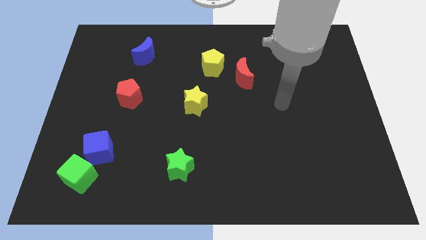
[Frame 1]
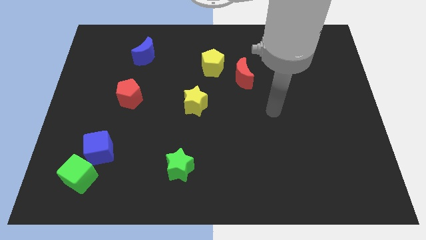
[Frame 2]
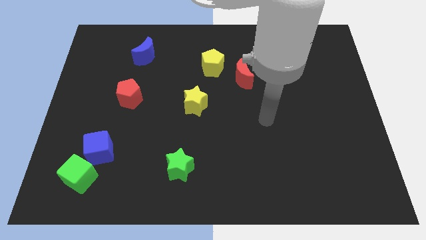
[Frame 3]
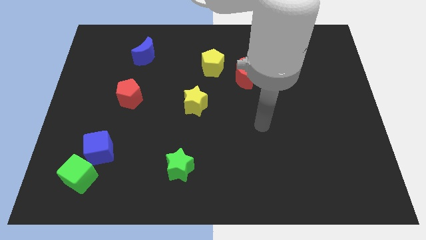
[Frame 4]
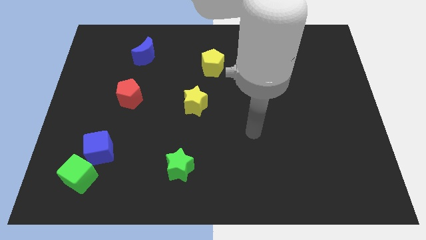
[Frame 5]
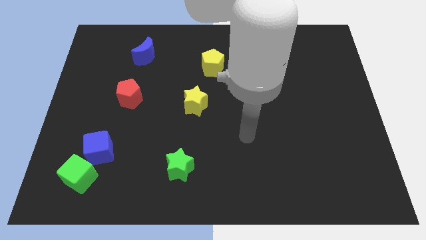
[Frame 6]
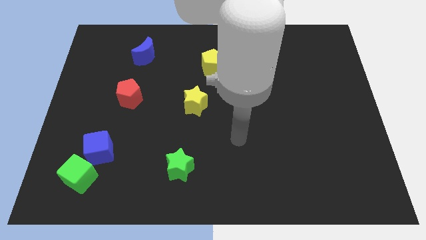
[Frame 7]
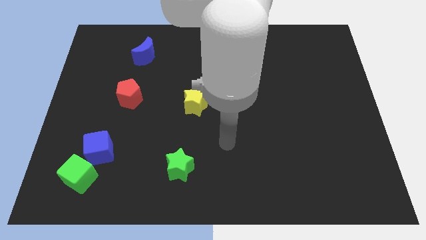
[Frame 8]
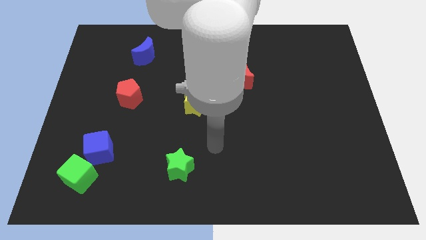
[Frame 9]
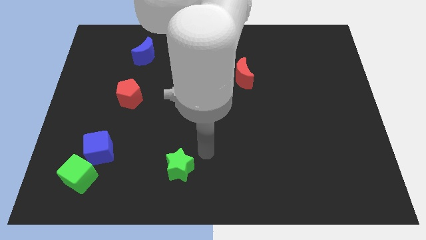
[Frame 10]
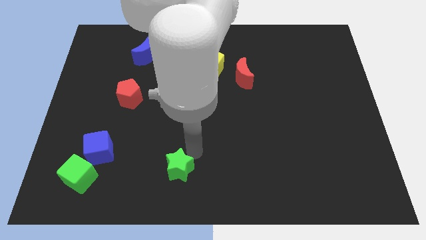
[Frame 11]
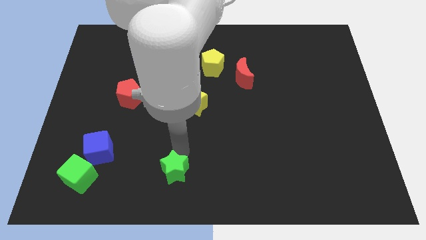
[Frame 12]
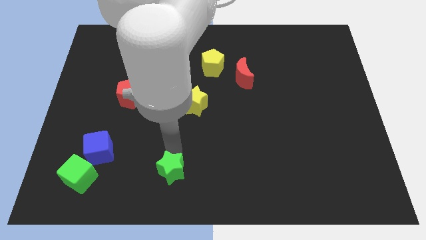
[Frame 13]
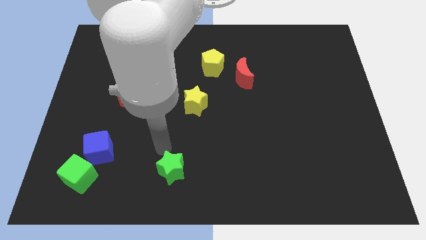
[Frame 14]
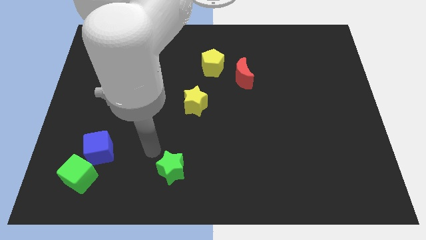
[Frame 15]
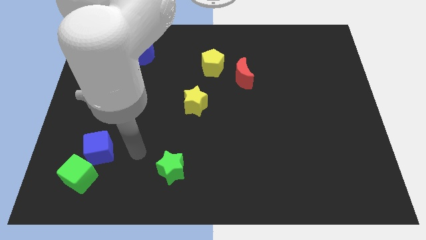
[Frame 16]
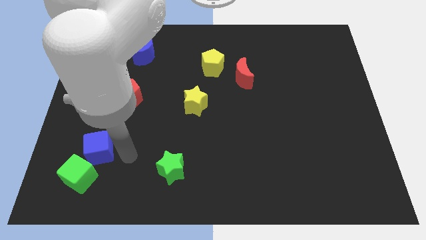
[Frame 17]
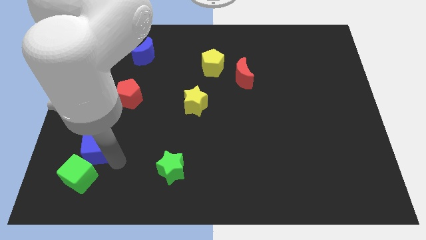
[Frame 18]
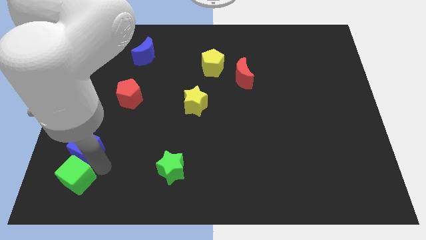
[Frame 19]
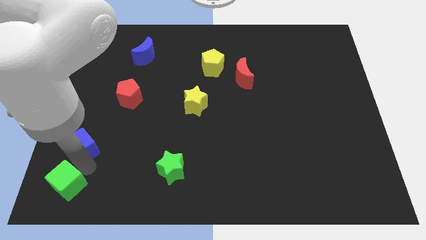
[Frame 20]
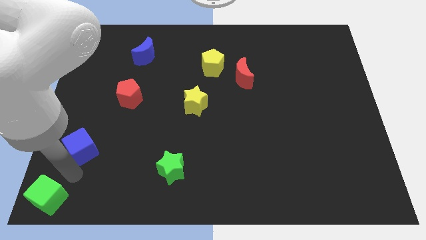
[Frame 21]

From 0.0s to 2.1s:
pull the blue cube apart from the green cube

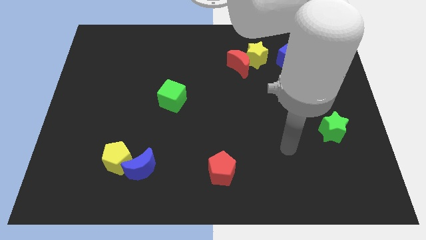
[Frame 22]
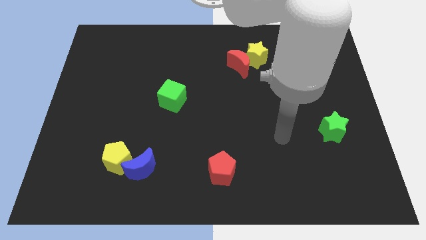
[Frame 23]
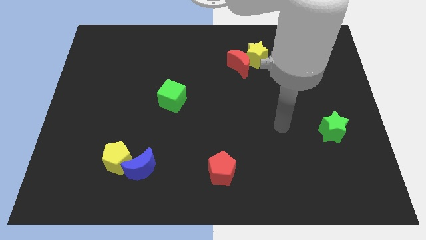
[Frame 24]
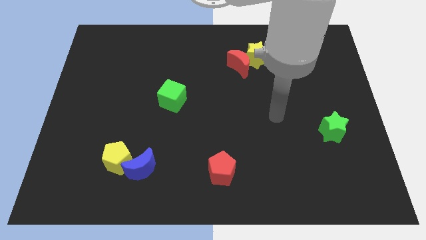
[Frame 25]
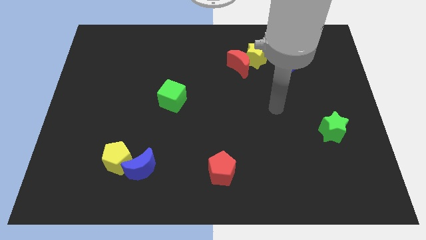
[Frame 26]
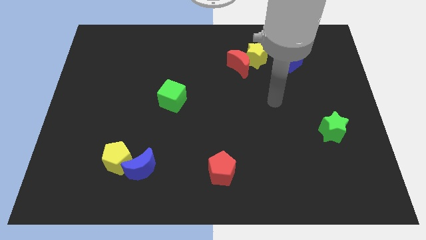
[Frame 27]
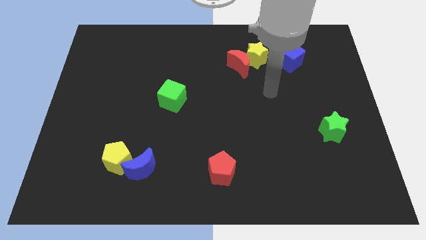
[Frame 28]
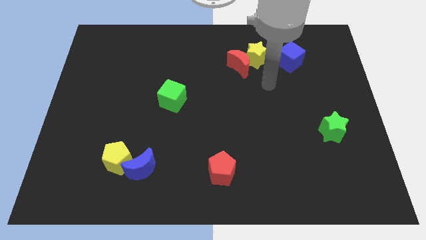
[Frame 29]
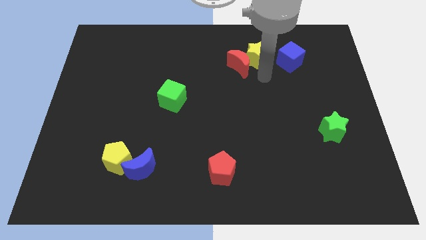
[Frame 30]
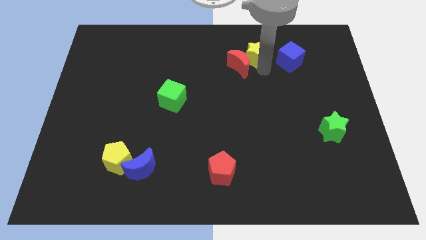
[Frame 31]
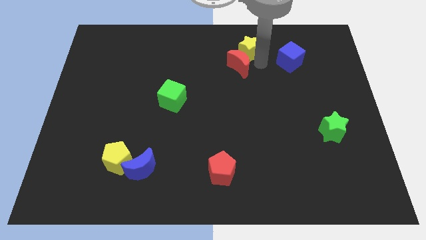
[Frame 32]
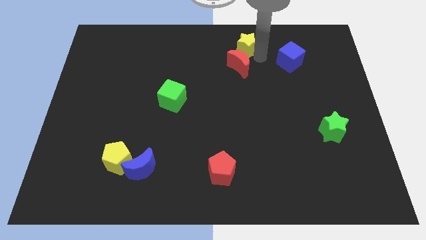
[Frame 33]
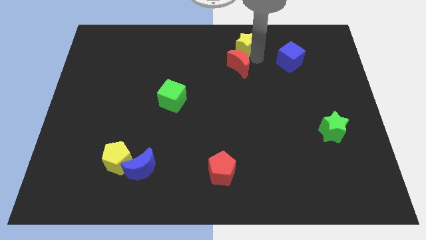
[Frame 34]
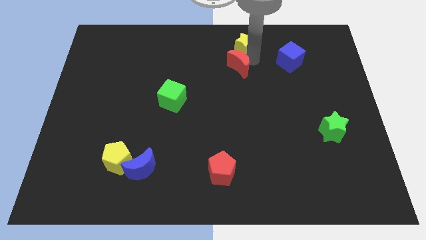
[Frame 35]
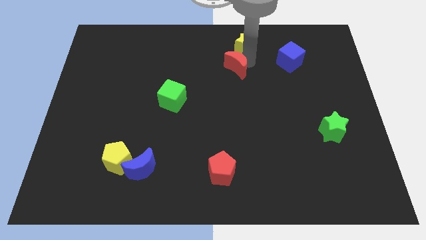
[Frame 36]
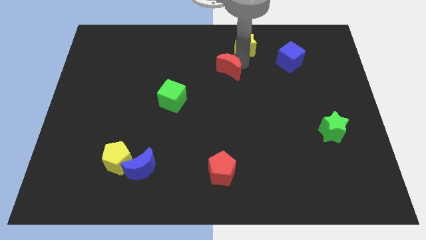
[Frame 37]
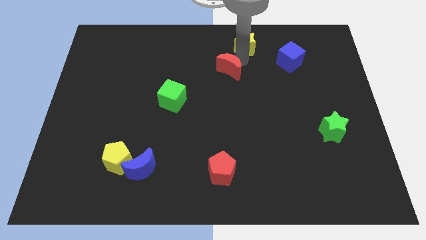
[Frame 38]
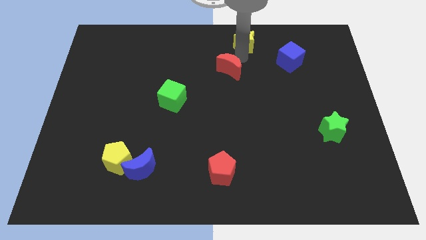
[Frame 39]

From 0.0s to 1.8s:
move the red moon away from the yellow star

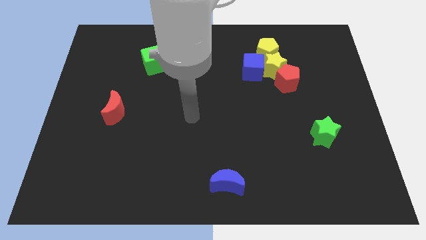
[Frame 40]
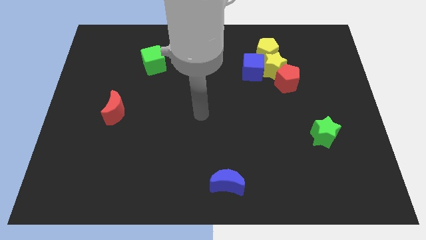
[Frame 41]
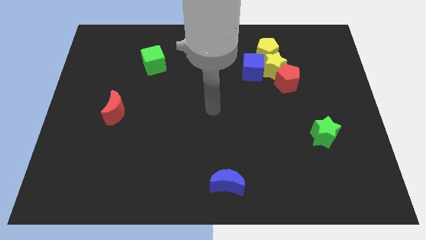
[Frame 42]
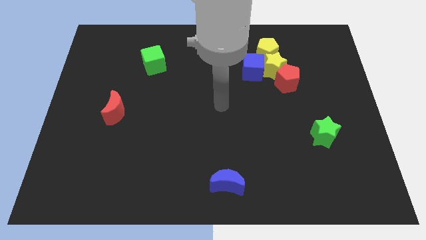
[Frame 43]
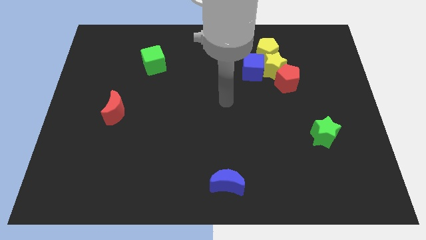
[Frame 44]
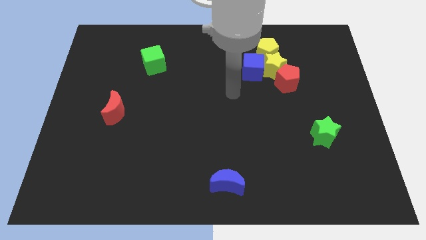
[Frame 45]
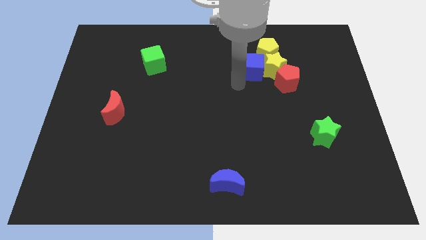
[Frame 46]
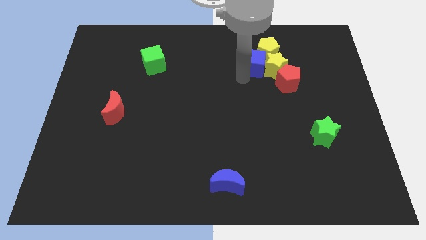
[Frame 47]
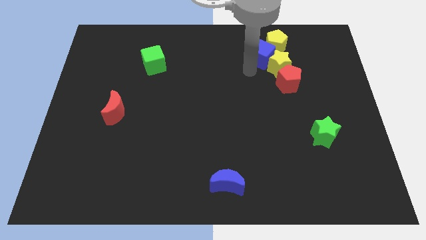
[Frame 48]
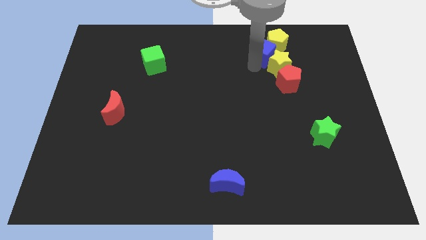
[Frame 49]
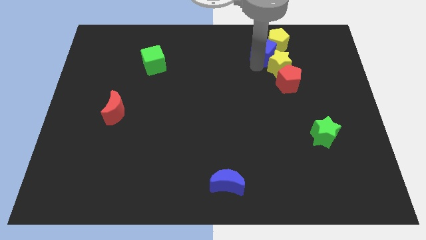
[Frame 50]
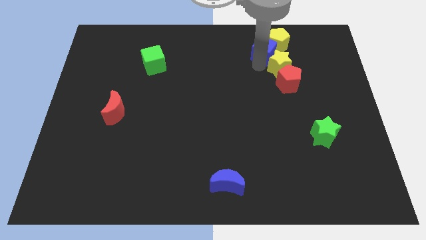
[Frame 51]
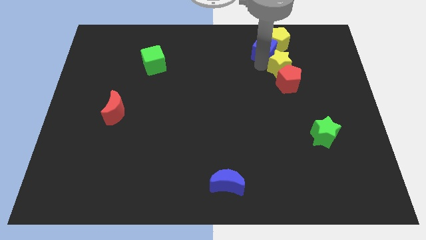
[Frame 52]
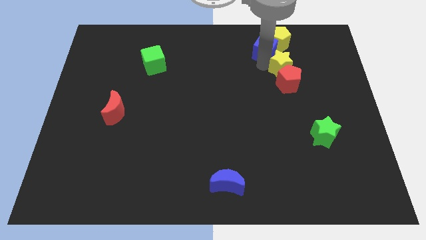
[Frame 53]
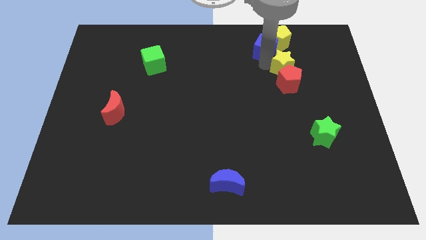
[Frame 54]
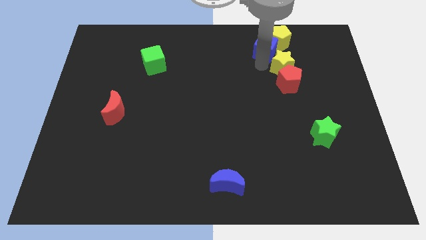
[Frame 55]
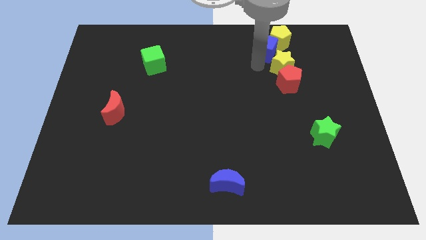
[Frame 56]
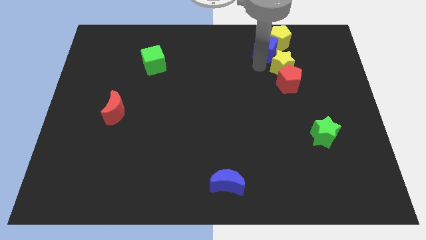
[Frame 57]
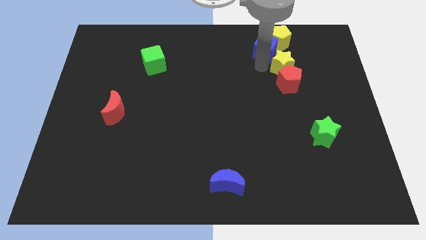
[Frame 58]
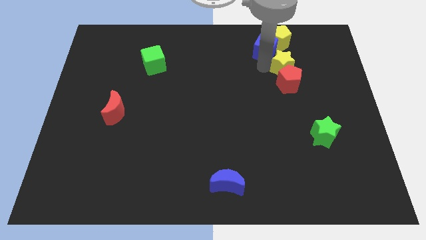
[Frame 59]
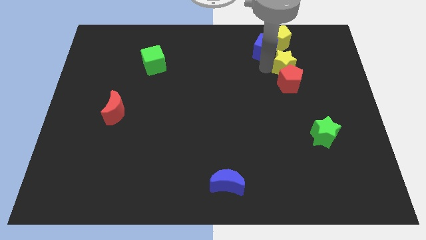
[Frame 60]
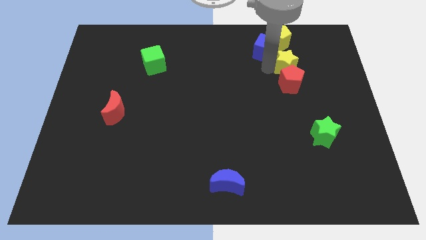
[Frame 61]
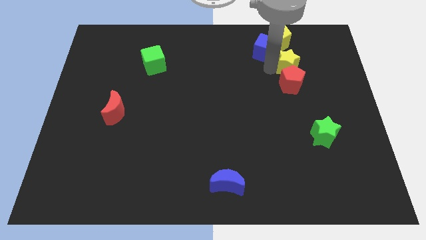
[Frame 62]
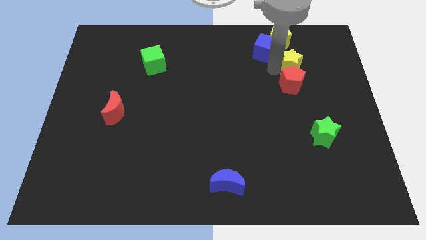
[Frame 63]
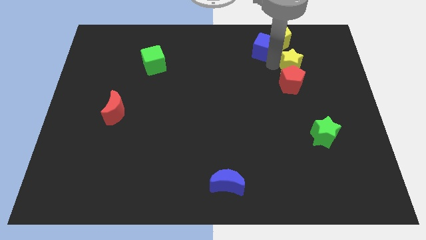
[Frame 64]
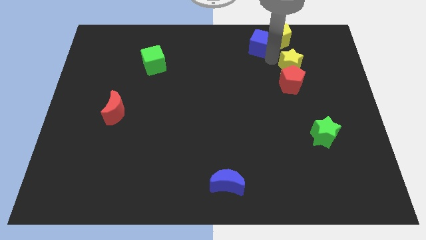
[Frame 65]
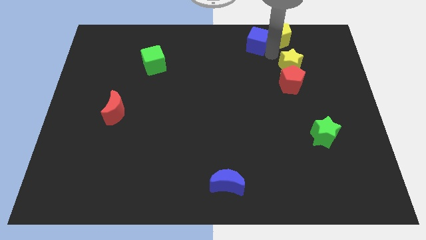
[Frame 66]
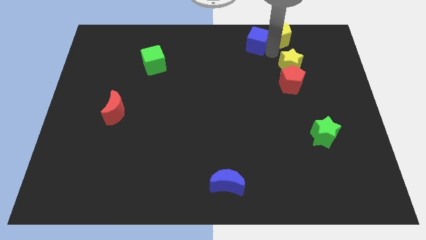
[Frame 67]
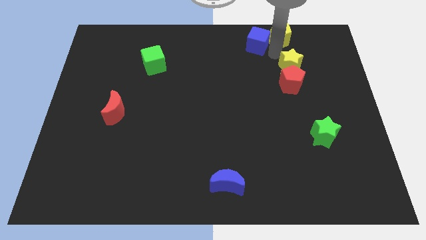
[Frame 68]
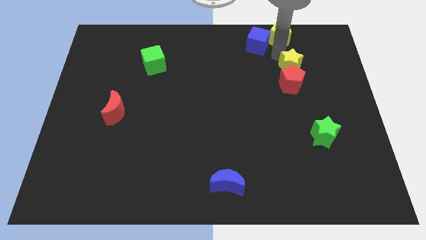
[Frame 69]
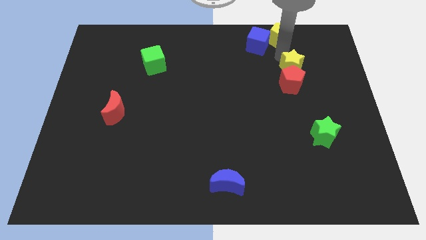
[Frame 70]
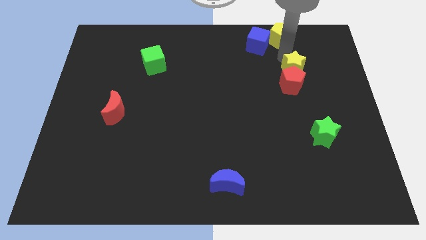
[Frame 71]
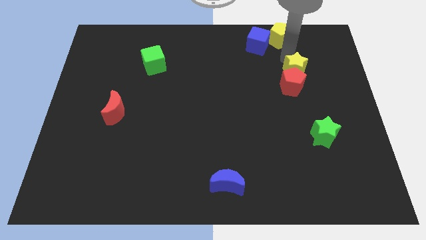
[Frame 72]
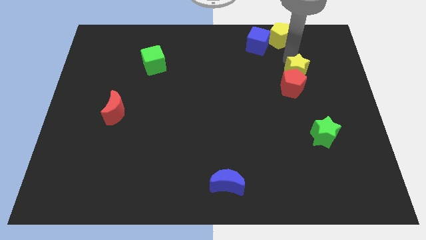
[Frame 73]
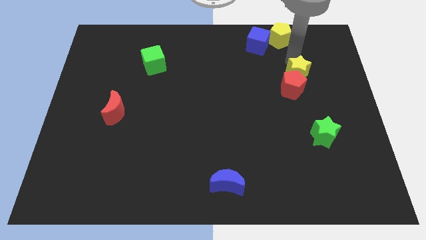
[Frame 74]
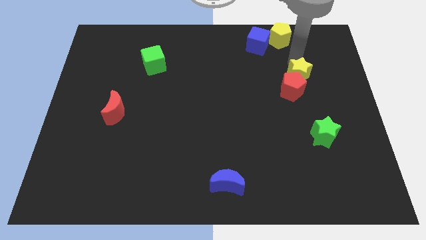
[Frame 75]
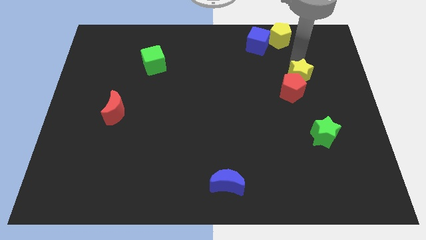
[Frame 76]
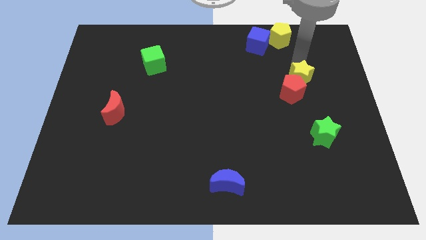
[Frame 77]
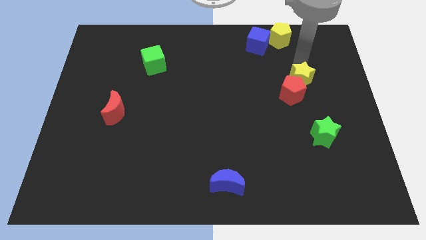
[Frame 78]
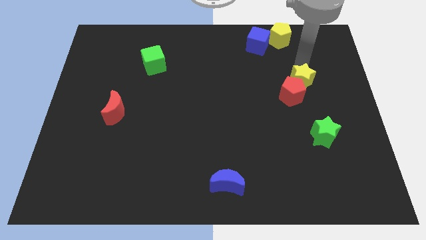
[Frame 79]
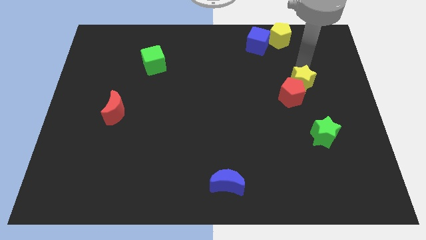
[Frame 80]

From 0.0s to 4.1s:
separate the yellow star from the clump

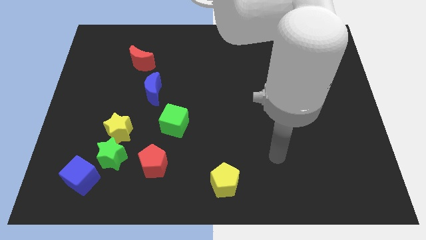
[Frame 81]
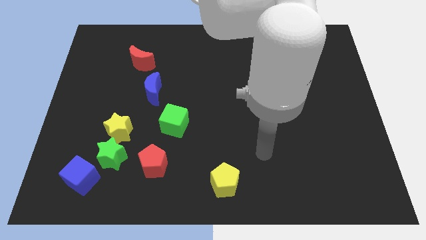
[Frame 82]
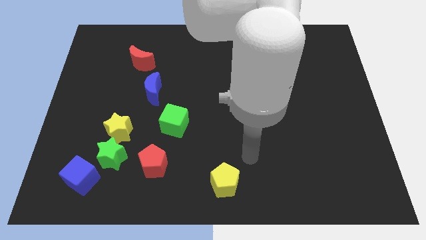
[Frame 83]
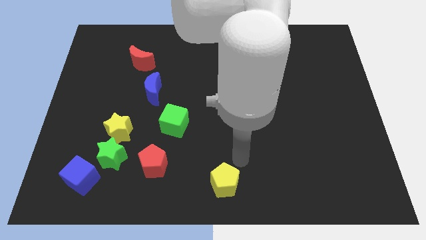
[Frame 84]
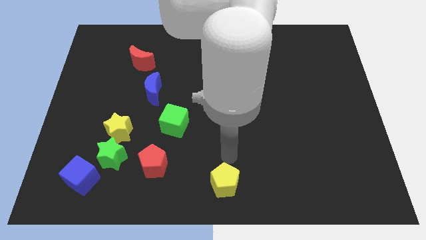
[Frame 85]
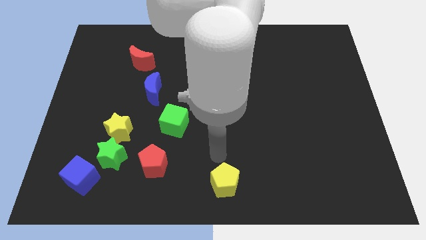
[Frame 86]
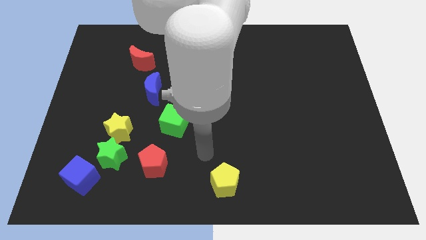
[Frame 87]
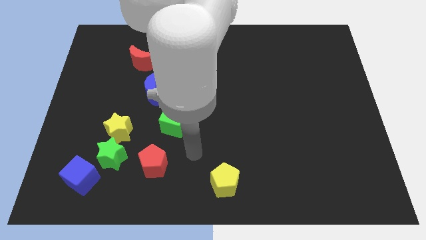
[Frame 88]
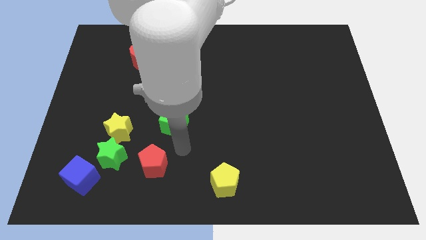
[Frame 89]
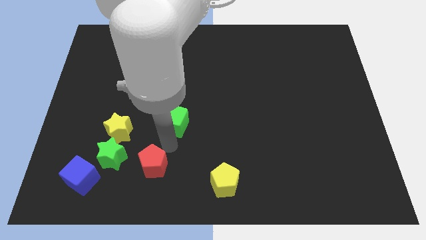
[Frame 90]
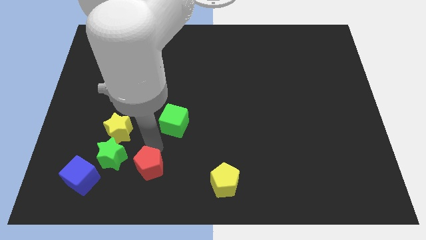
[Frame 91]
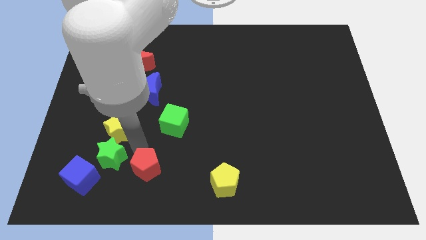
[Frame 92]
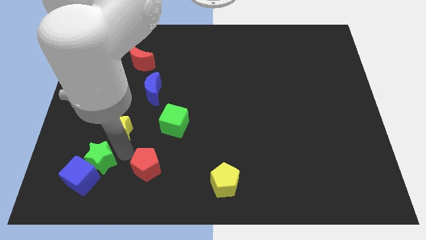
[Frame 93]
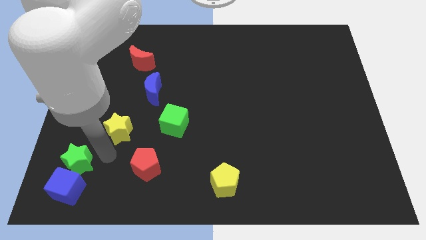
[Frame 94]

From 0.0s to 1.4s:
separate the yellow star from the green star
